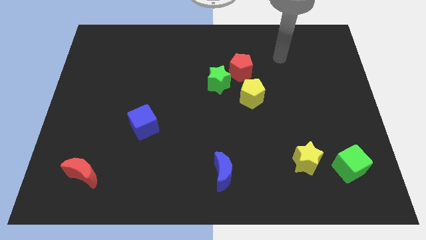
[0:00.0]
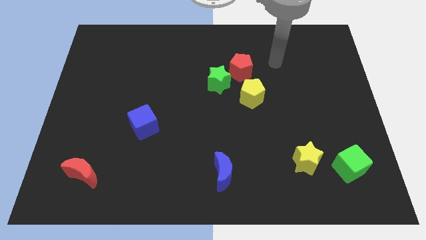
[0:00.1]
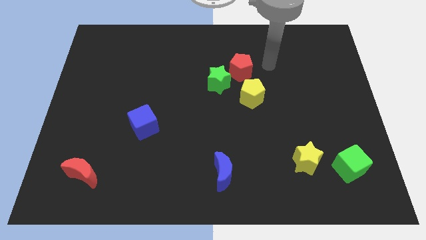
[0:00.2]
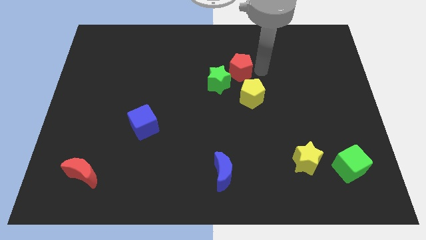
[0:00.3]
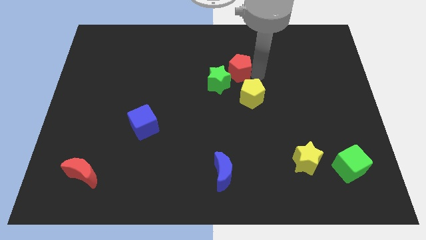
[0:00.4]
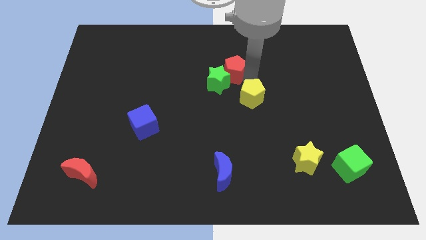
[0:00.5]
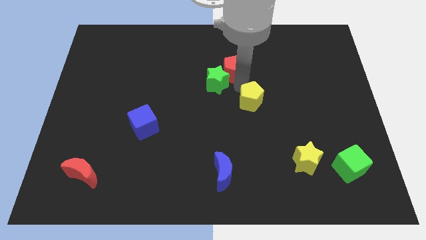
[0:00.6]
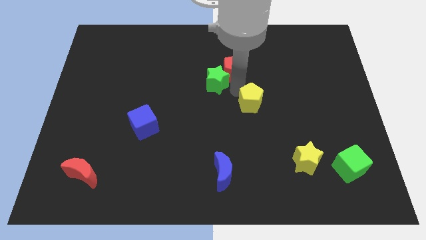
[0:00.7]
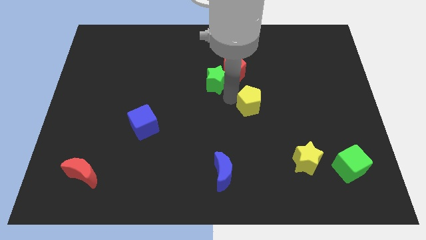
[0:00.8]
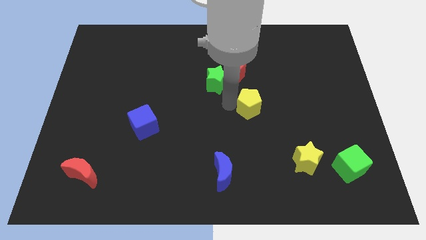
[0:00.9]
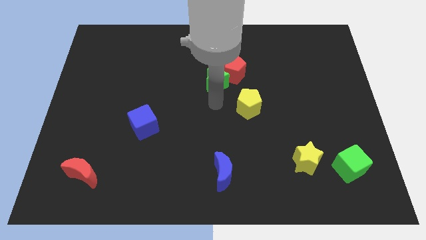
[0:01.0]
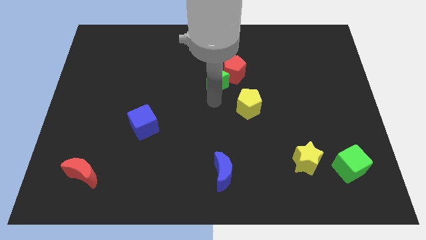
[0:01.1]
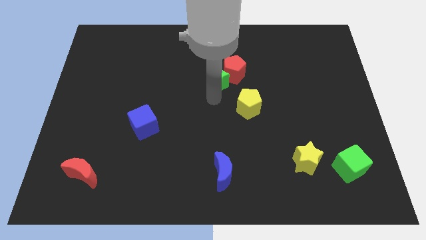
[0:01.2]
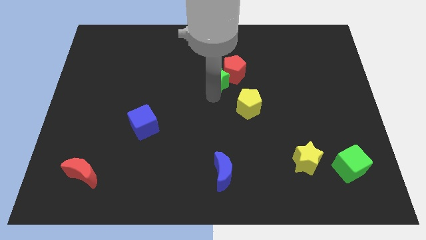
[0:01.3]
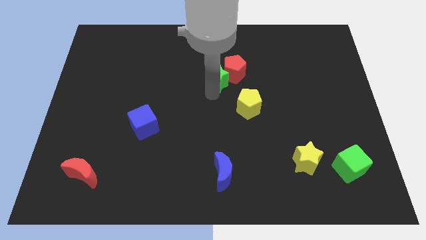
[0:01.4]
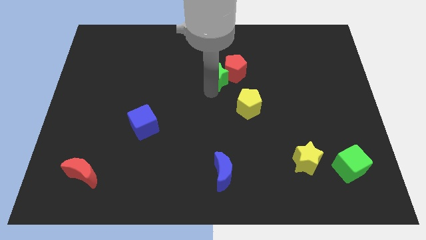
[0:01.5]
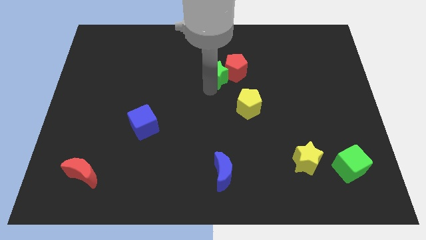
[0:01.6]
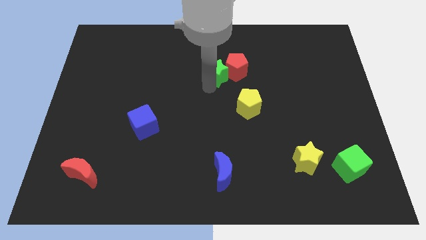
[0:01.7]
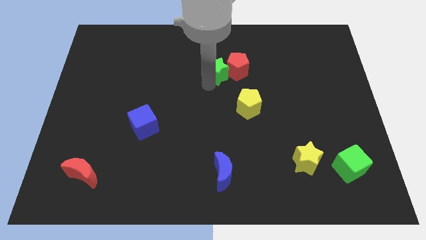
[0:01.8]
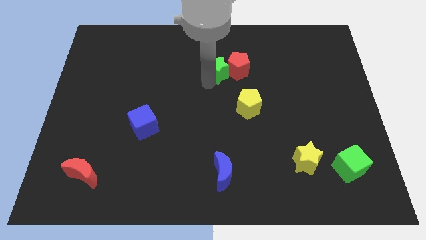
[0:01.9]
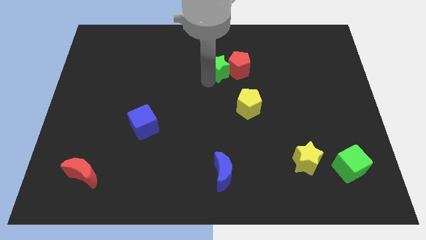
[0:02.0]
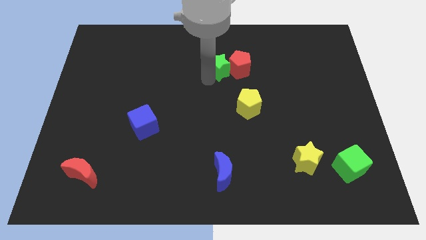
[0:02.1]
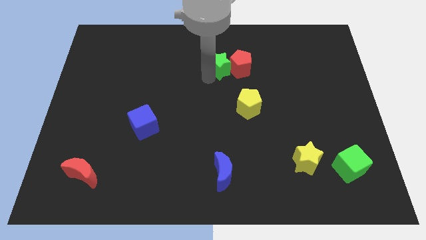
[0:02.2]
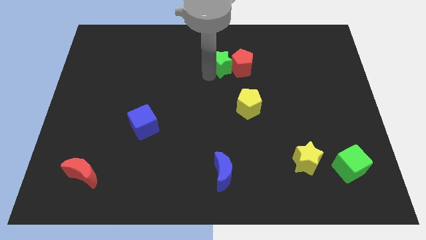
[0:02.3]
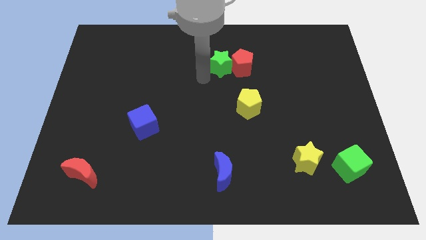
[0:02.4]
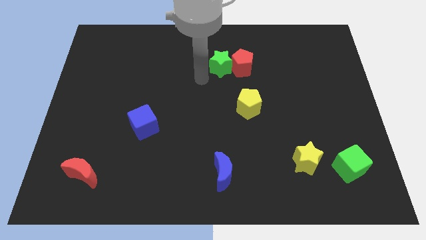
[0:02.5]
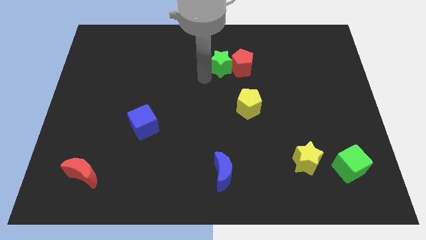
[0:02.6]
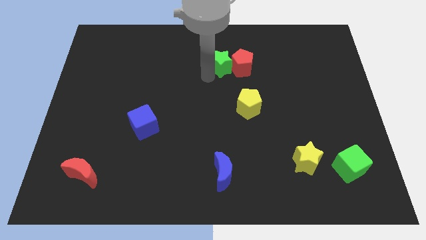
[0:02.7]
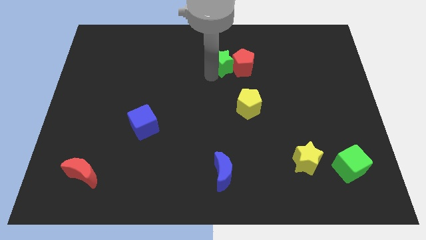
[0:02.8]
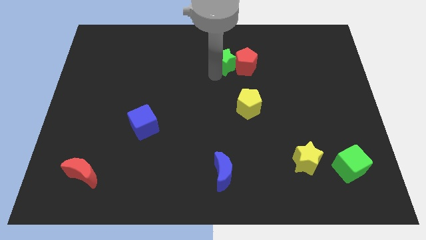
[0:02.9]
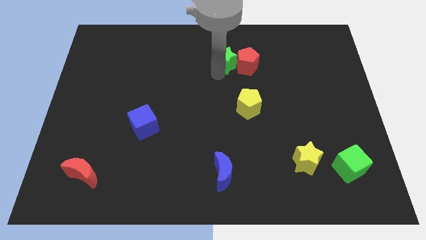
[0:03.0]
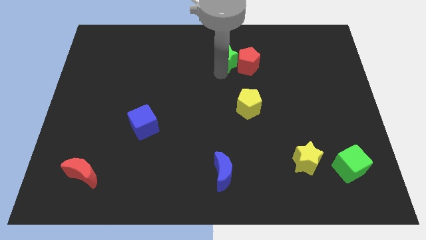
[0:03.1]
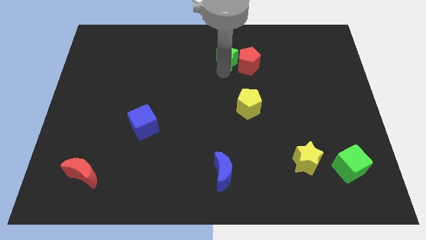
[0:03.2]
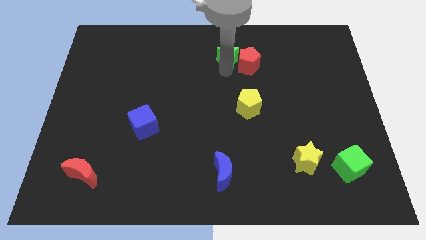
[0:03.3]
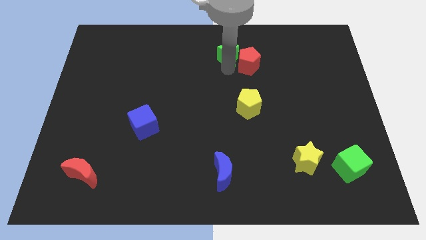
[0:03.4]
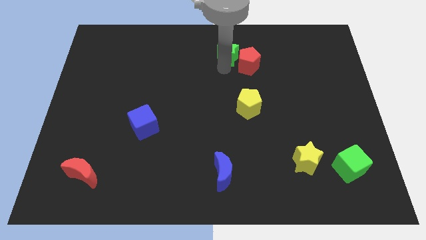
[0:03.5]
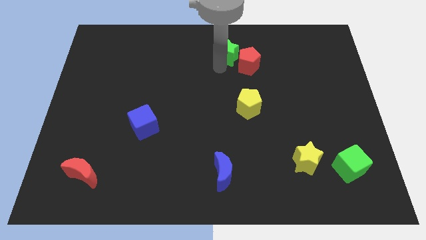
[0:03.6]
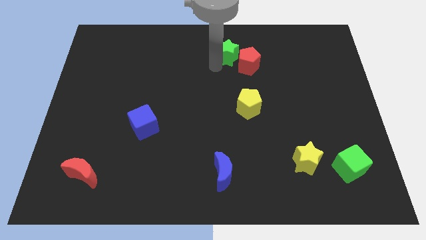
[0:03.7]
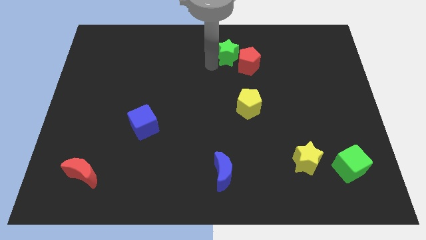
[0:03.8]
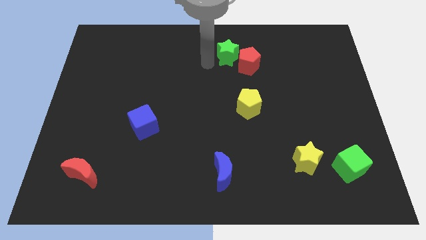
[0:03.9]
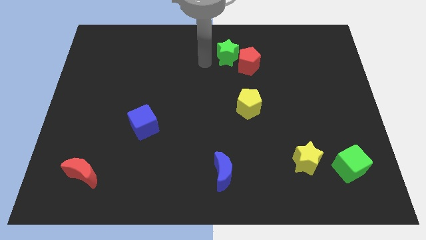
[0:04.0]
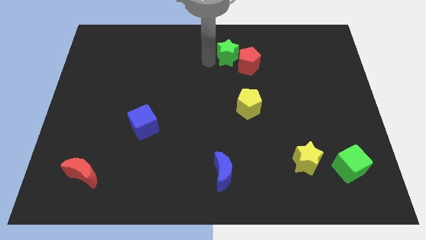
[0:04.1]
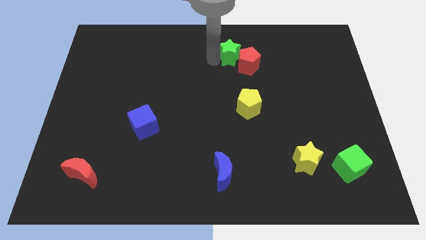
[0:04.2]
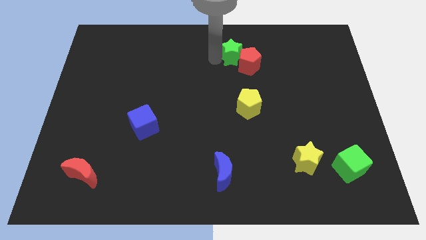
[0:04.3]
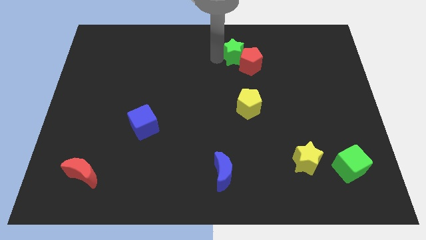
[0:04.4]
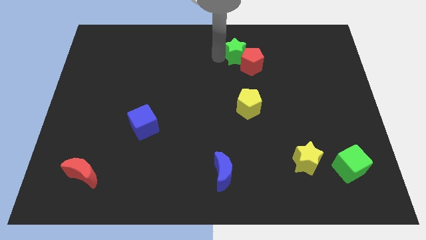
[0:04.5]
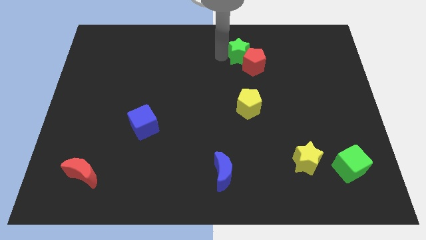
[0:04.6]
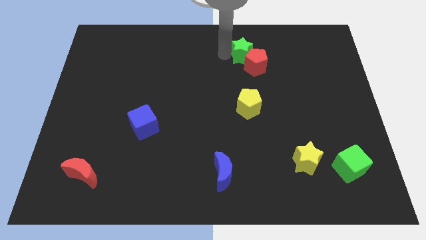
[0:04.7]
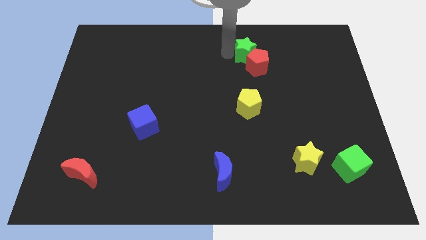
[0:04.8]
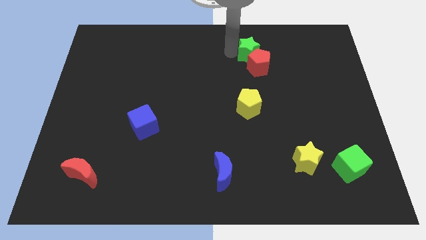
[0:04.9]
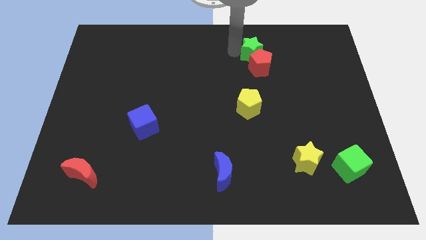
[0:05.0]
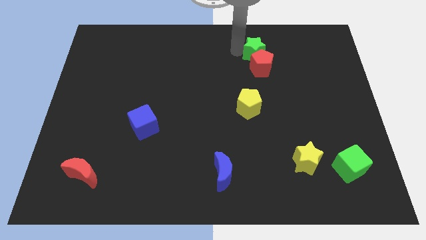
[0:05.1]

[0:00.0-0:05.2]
put the green star to the top right side of the red pentagon

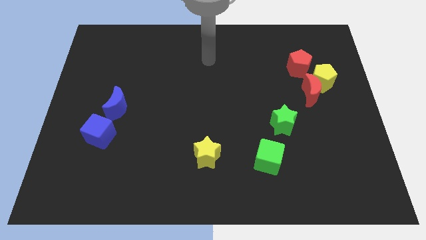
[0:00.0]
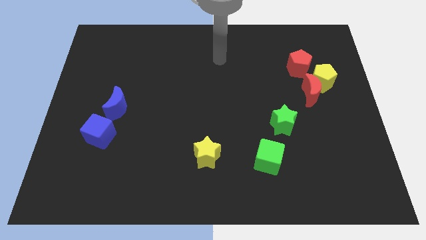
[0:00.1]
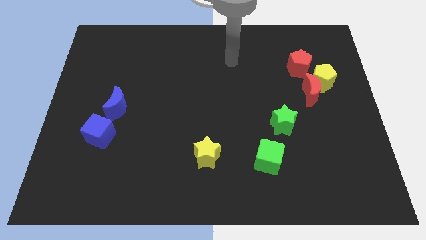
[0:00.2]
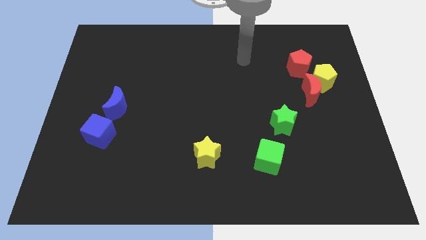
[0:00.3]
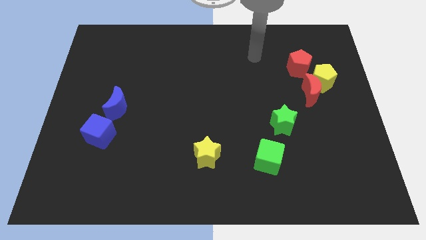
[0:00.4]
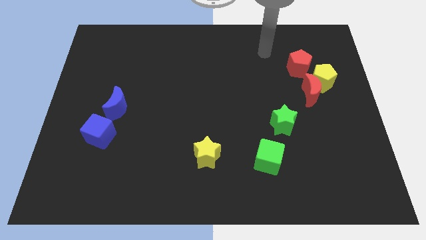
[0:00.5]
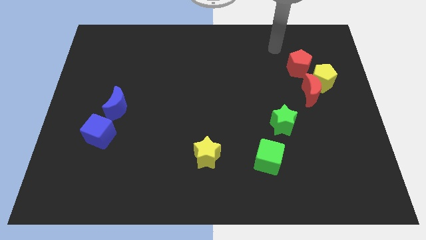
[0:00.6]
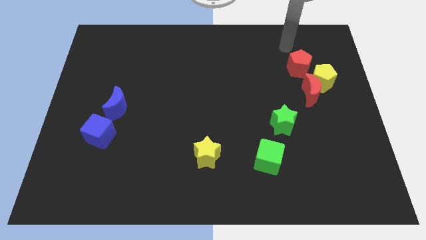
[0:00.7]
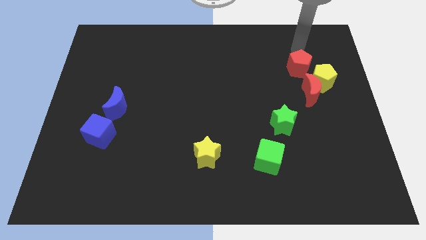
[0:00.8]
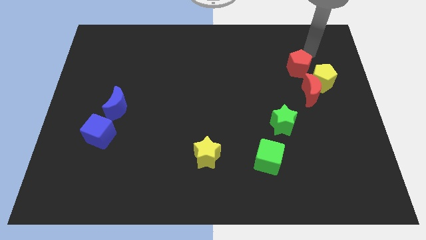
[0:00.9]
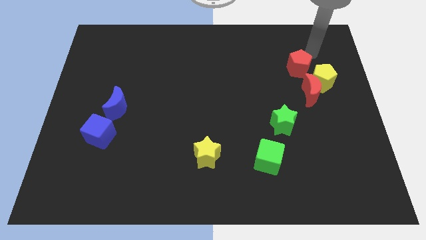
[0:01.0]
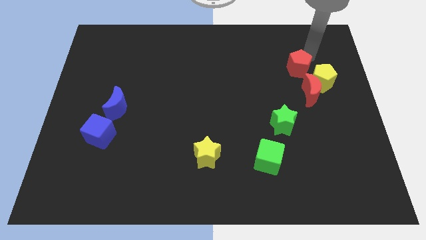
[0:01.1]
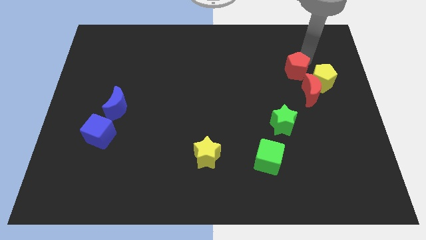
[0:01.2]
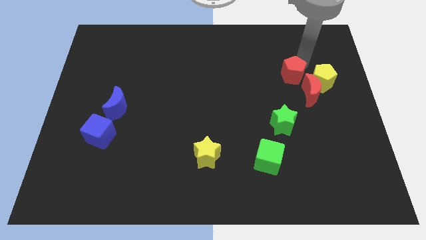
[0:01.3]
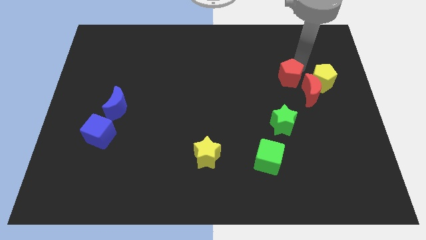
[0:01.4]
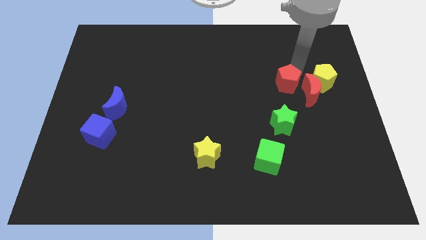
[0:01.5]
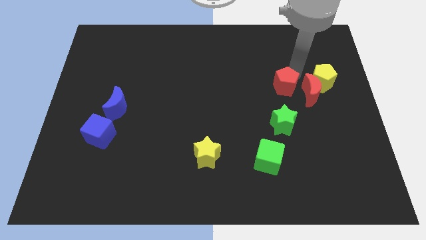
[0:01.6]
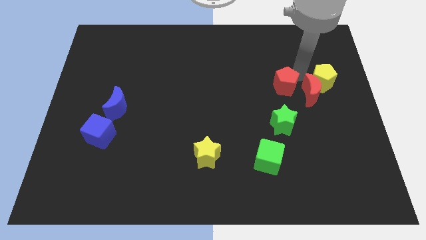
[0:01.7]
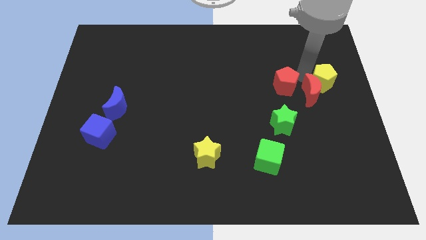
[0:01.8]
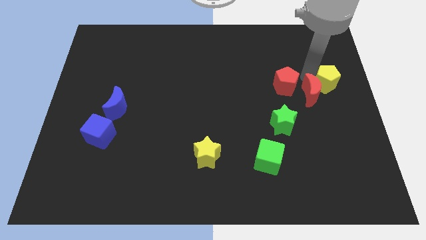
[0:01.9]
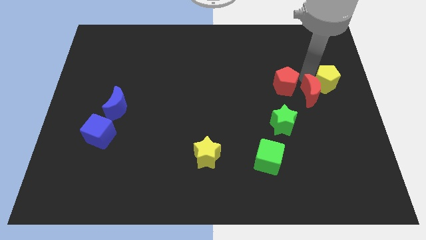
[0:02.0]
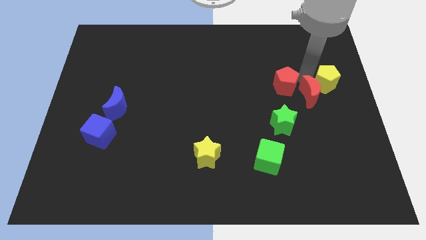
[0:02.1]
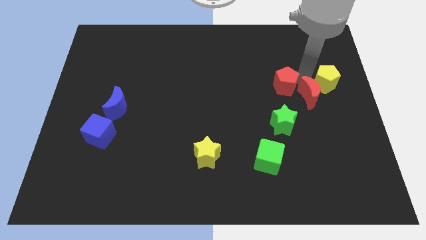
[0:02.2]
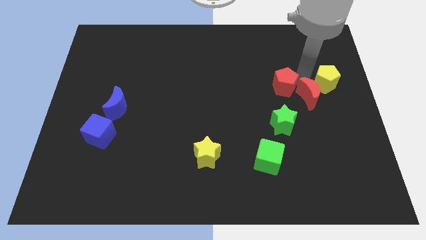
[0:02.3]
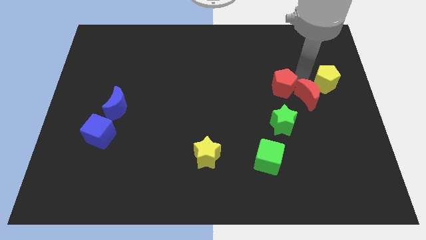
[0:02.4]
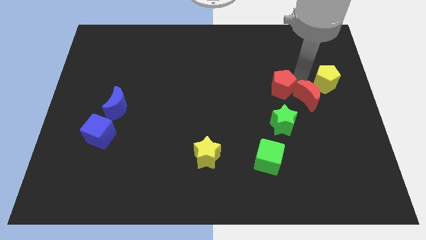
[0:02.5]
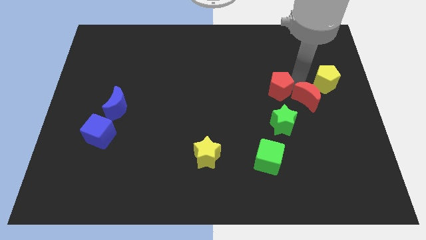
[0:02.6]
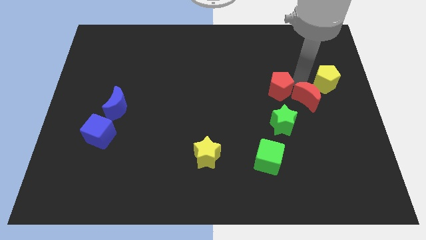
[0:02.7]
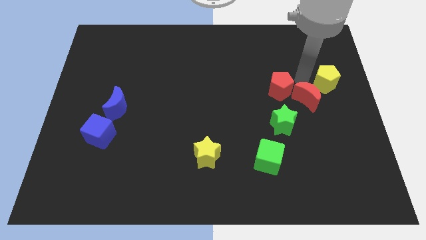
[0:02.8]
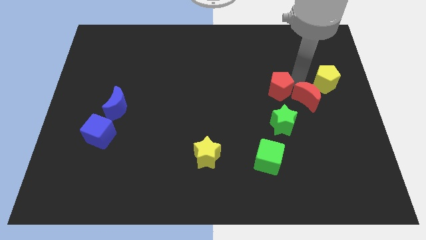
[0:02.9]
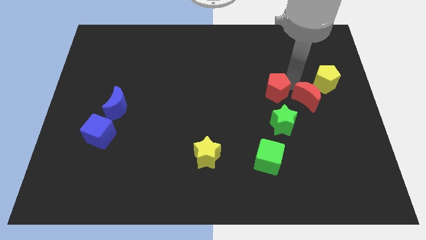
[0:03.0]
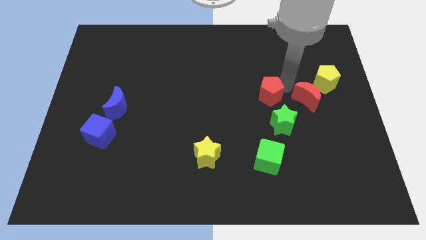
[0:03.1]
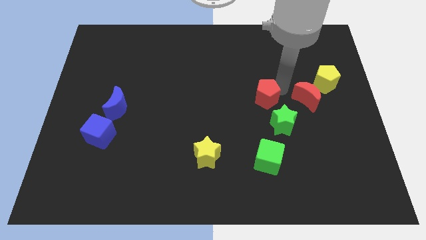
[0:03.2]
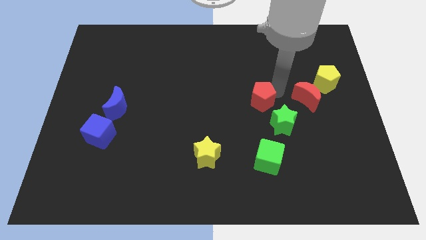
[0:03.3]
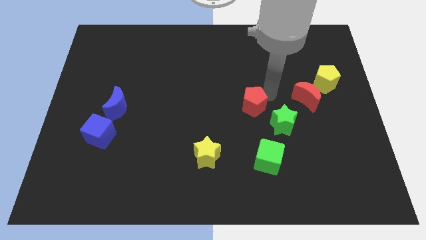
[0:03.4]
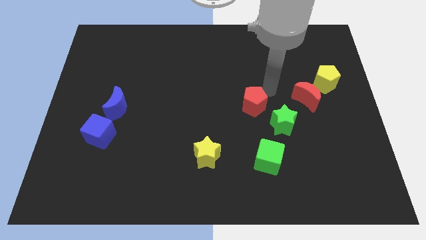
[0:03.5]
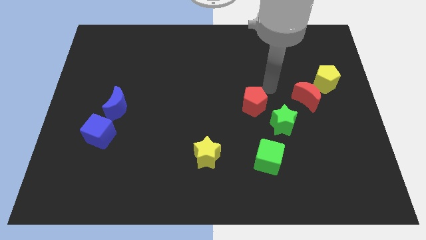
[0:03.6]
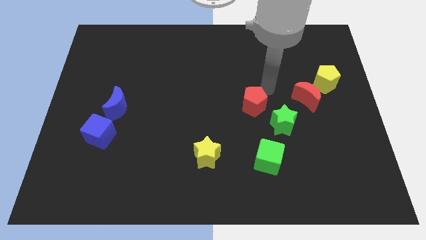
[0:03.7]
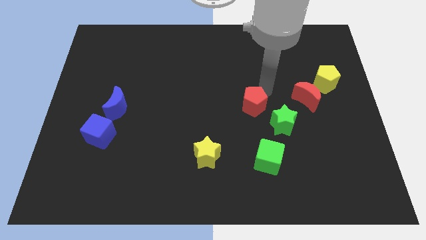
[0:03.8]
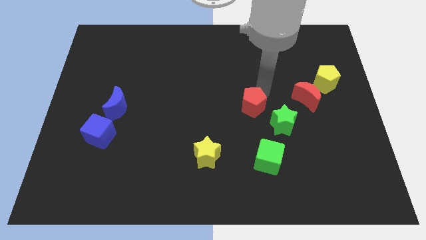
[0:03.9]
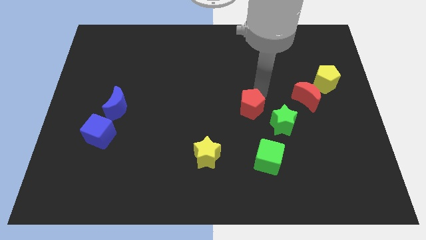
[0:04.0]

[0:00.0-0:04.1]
put the red pentagon left of the green star
